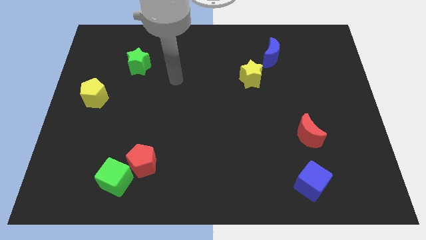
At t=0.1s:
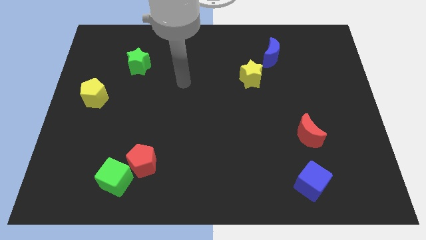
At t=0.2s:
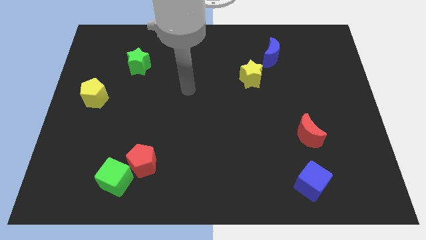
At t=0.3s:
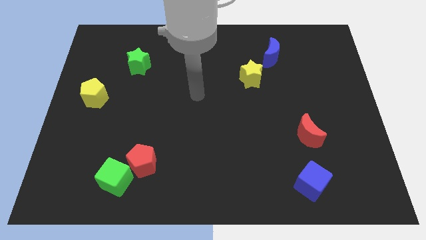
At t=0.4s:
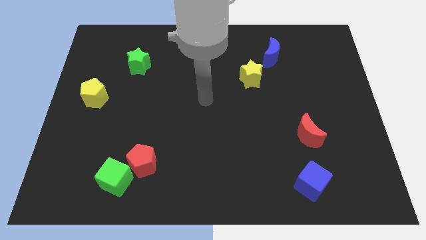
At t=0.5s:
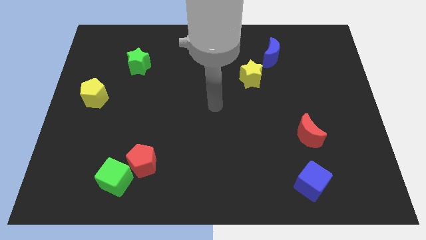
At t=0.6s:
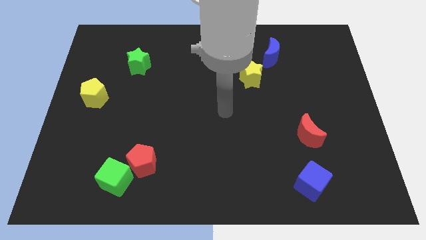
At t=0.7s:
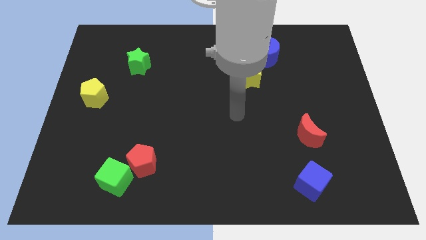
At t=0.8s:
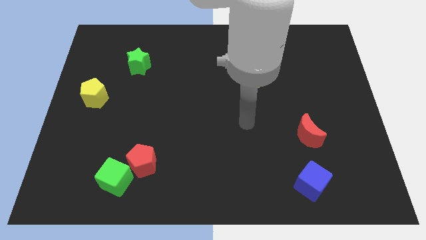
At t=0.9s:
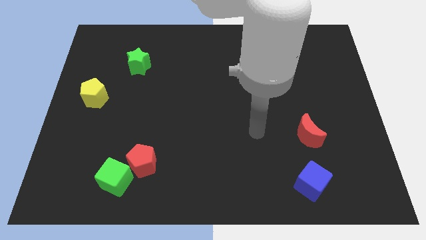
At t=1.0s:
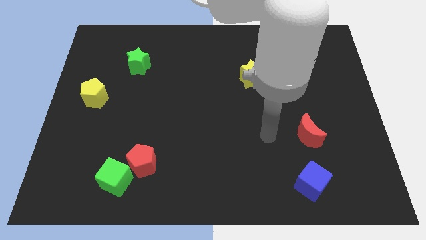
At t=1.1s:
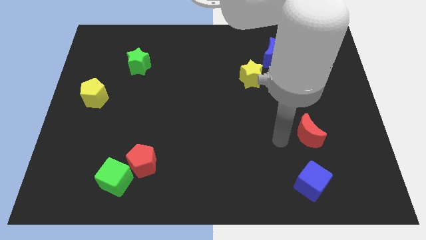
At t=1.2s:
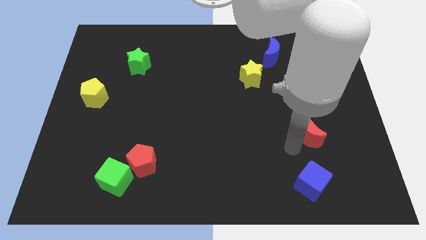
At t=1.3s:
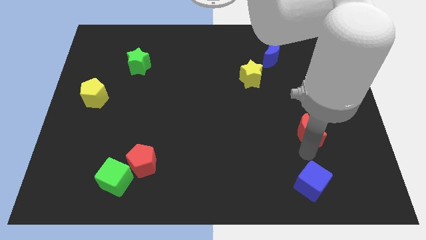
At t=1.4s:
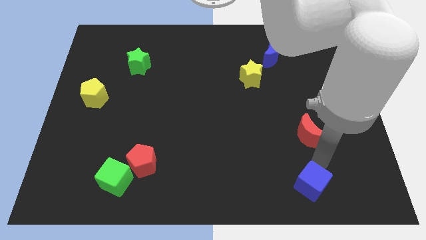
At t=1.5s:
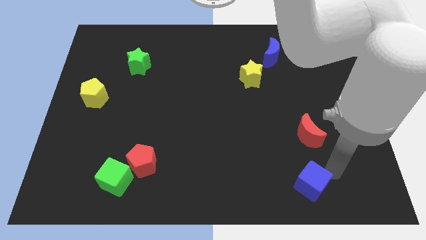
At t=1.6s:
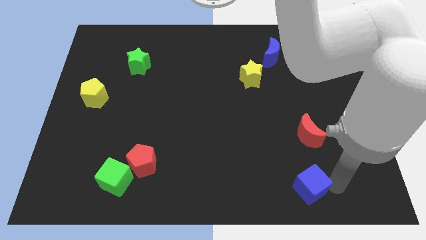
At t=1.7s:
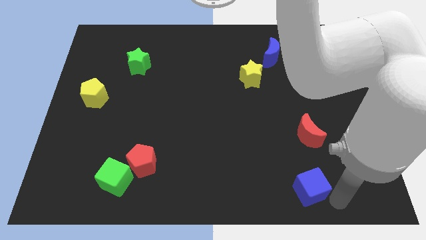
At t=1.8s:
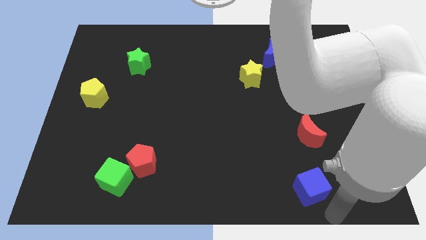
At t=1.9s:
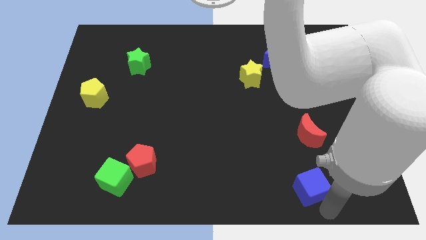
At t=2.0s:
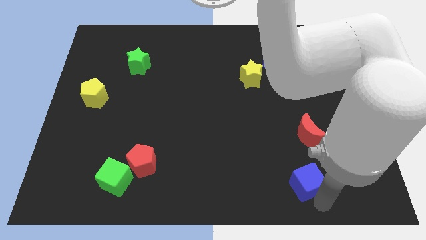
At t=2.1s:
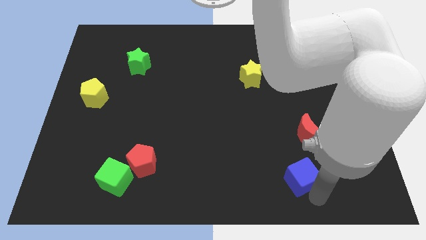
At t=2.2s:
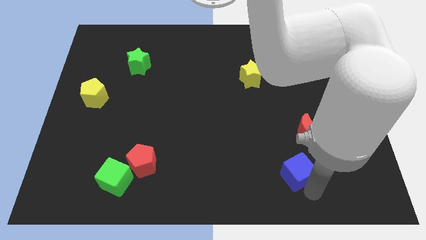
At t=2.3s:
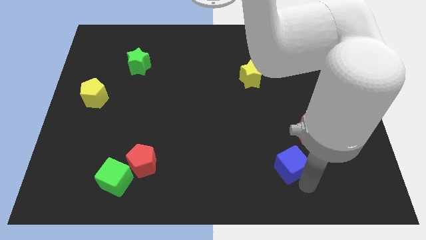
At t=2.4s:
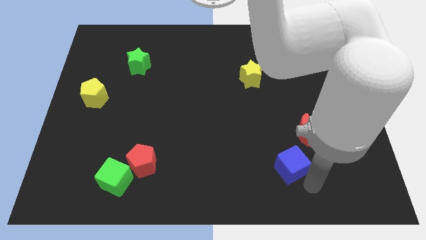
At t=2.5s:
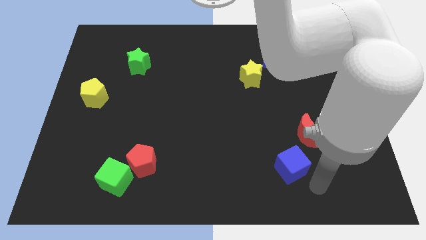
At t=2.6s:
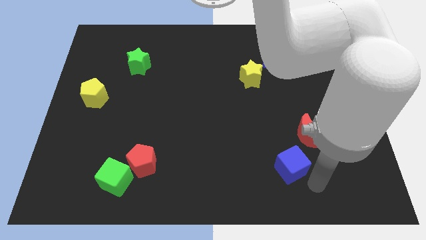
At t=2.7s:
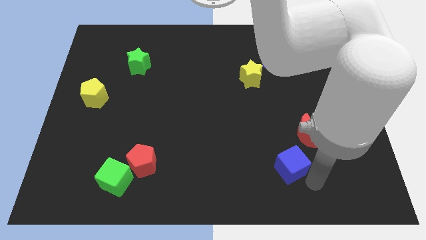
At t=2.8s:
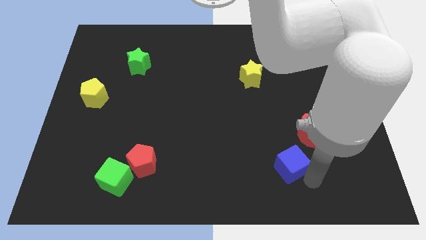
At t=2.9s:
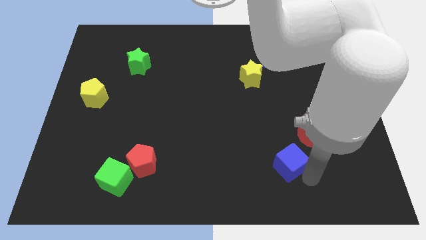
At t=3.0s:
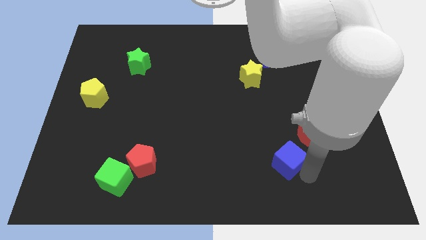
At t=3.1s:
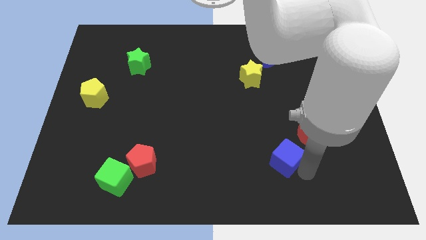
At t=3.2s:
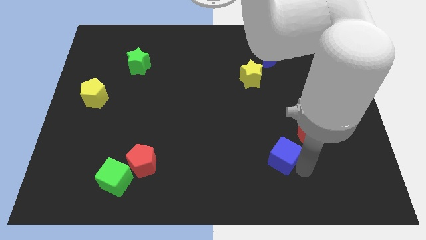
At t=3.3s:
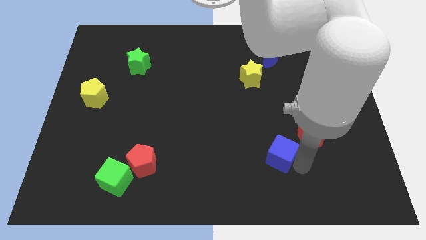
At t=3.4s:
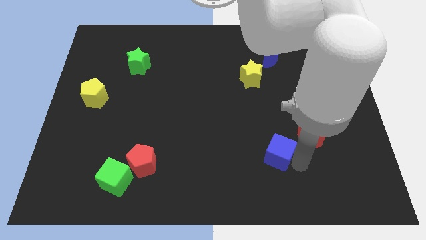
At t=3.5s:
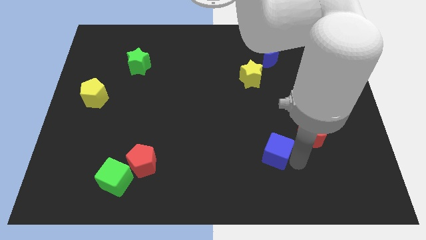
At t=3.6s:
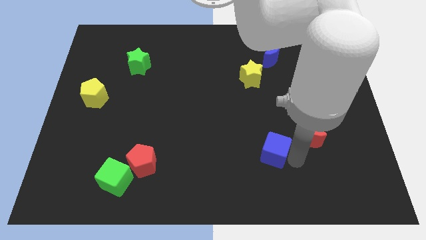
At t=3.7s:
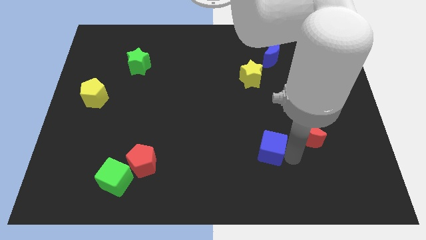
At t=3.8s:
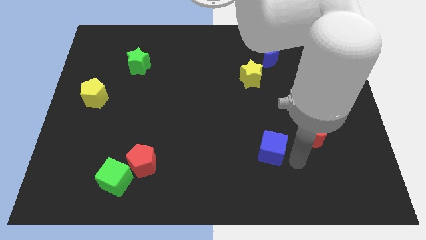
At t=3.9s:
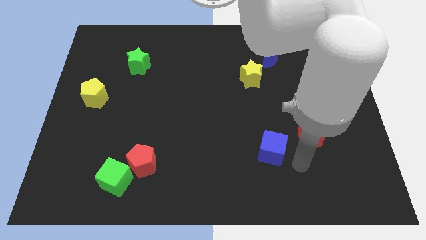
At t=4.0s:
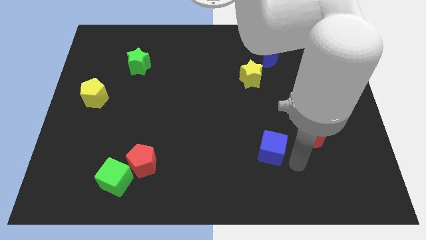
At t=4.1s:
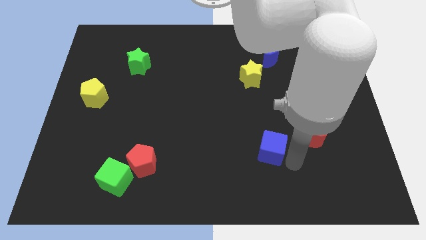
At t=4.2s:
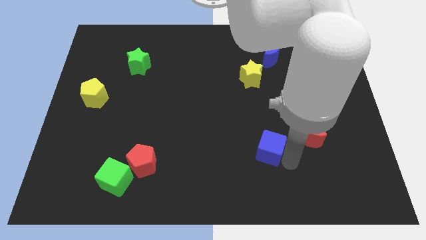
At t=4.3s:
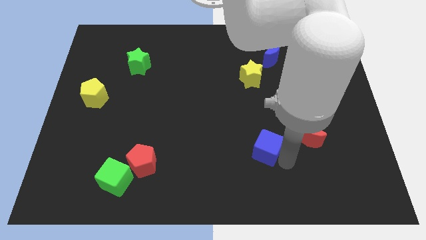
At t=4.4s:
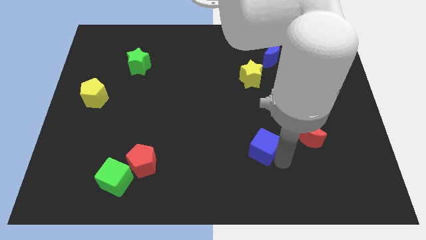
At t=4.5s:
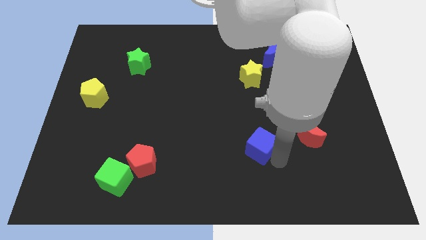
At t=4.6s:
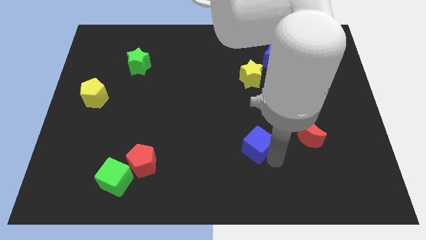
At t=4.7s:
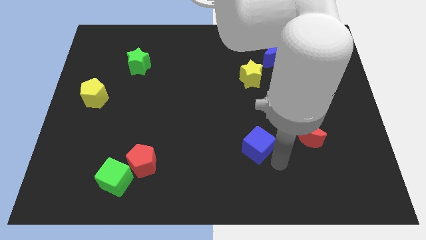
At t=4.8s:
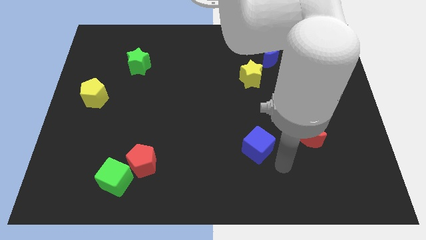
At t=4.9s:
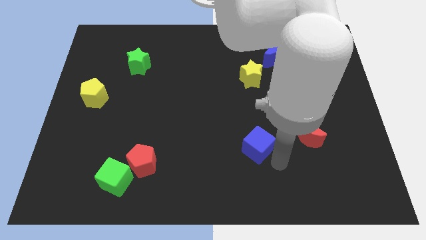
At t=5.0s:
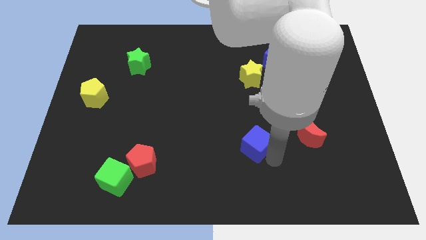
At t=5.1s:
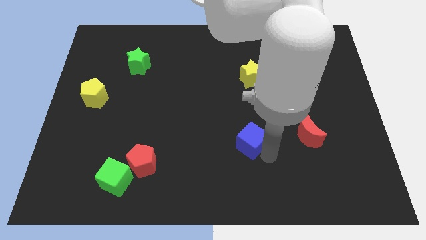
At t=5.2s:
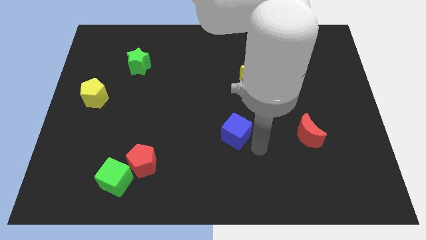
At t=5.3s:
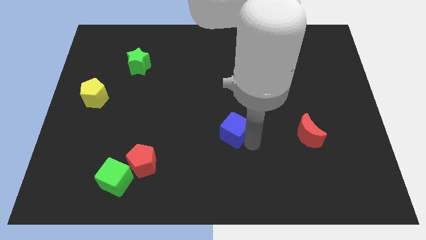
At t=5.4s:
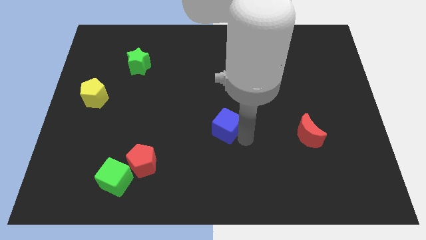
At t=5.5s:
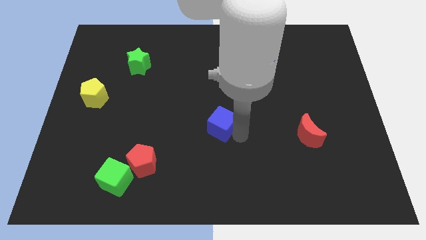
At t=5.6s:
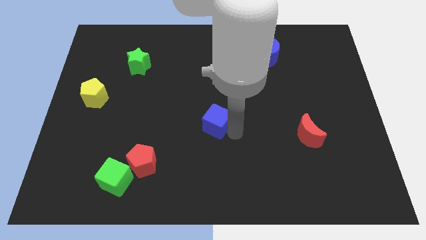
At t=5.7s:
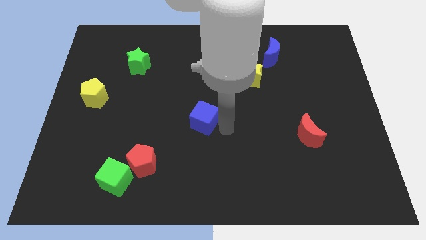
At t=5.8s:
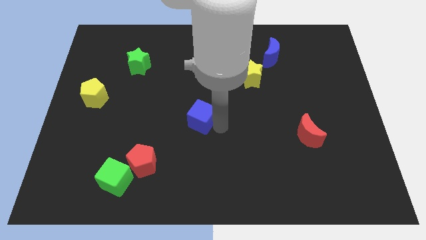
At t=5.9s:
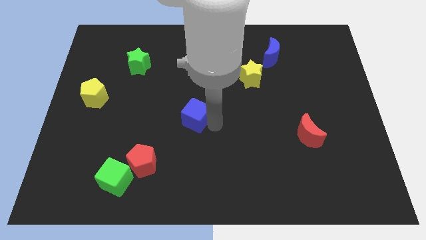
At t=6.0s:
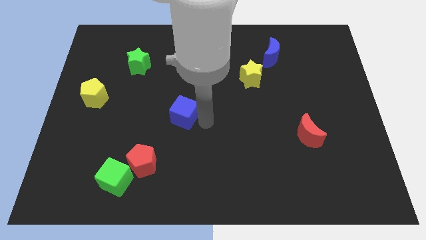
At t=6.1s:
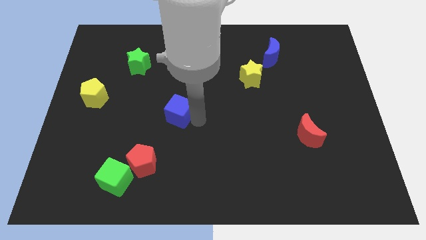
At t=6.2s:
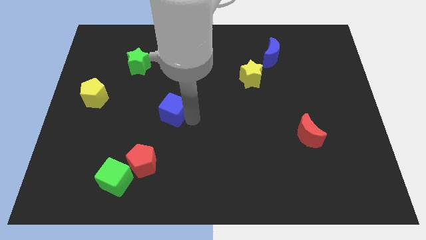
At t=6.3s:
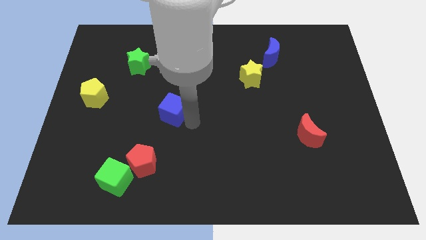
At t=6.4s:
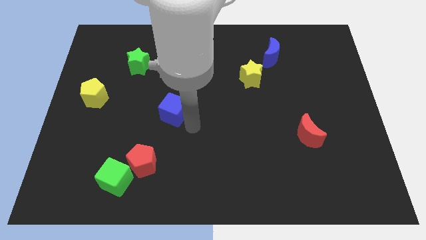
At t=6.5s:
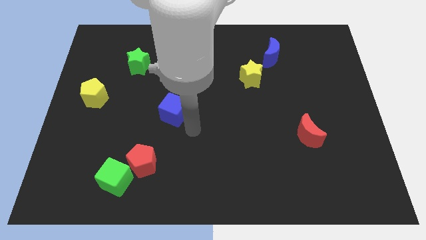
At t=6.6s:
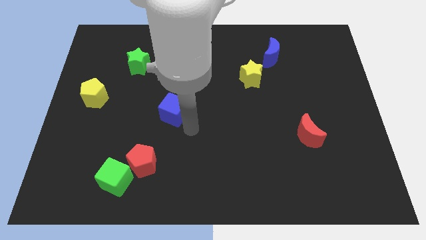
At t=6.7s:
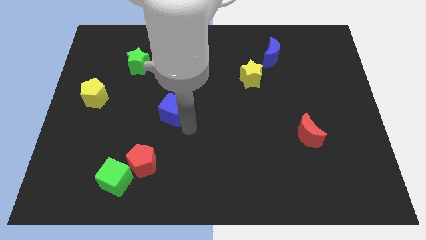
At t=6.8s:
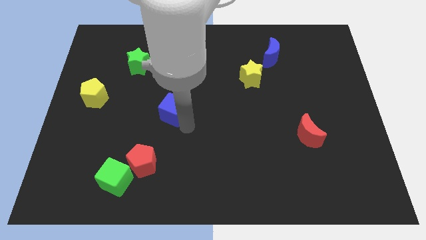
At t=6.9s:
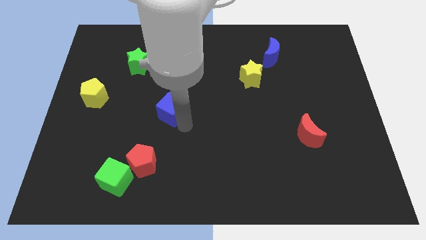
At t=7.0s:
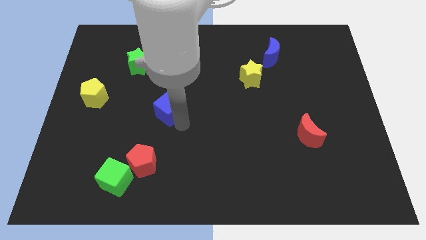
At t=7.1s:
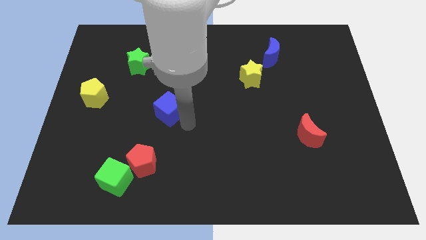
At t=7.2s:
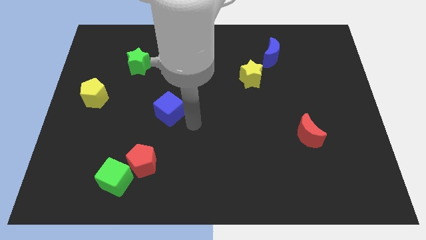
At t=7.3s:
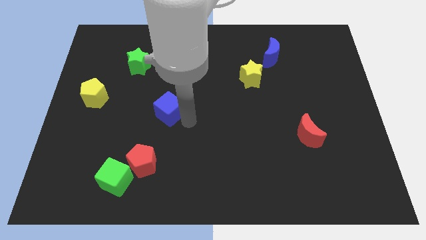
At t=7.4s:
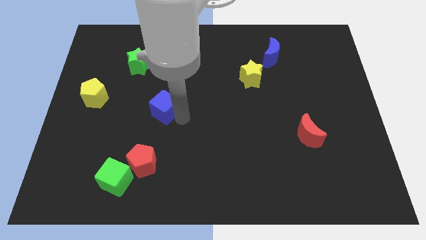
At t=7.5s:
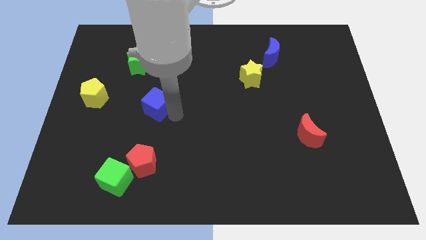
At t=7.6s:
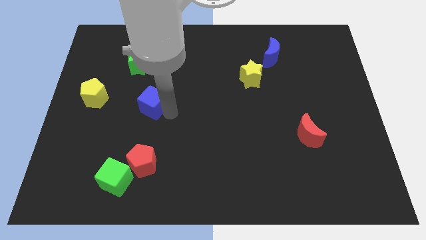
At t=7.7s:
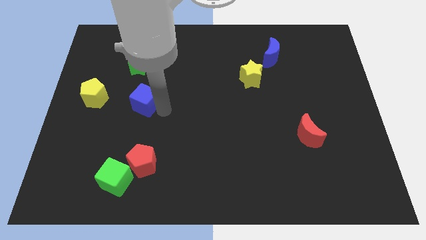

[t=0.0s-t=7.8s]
slide the blue cube to the bottom side of the green star
